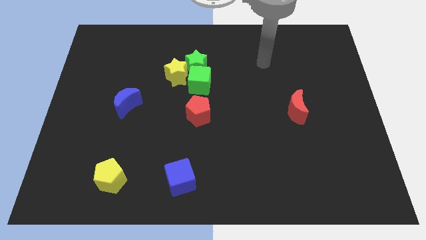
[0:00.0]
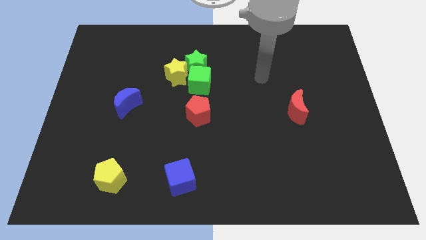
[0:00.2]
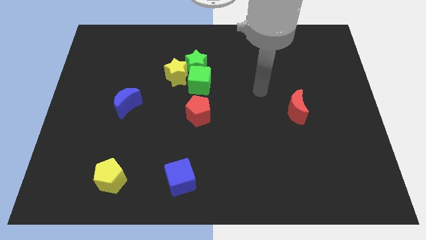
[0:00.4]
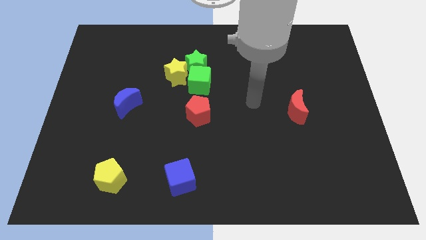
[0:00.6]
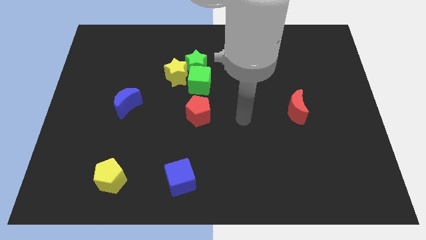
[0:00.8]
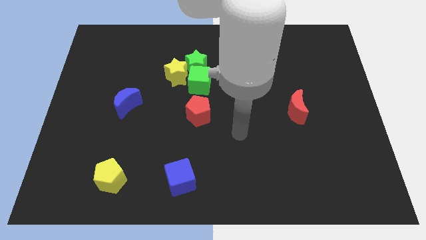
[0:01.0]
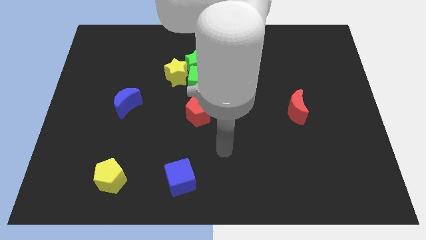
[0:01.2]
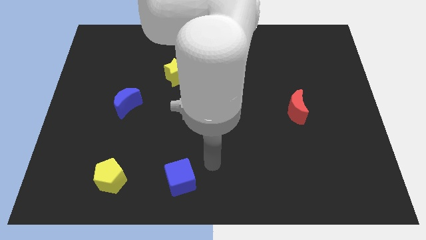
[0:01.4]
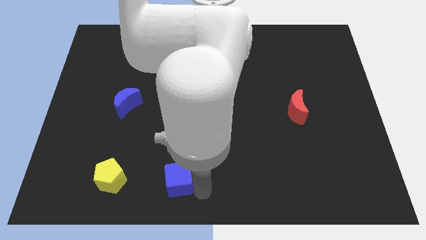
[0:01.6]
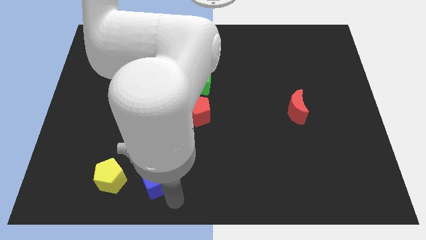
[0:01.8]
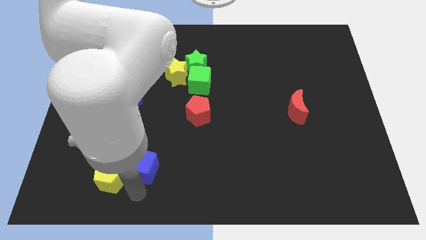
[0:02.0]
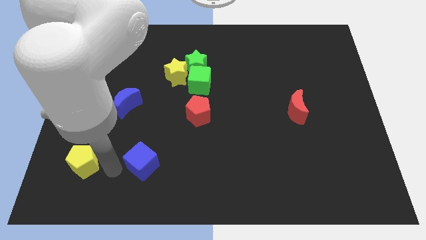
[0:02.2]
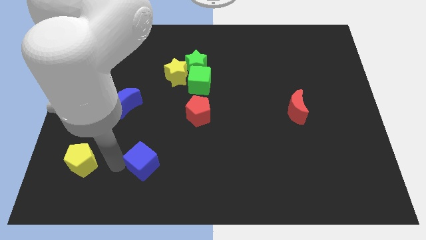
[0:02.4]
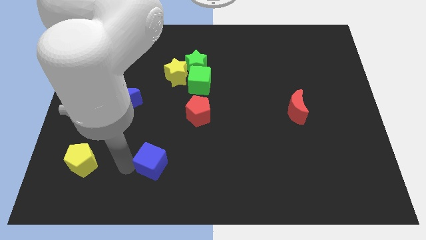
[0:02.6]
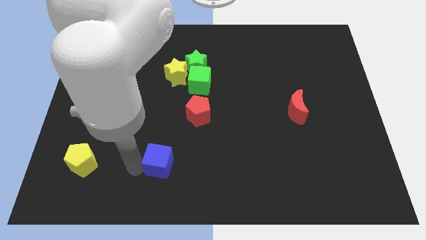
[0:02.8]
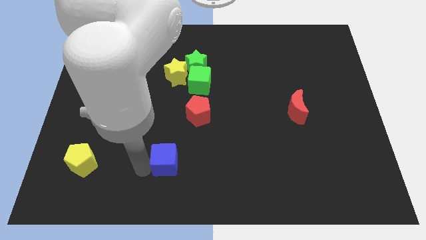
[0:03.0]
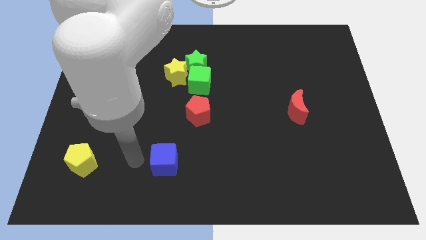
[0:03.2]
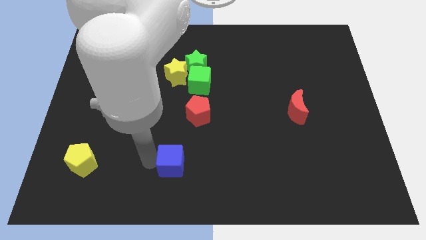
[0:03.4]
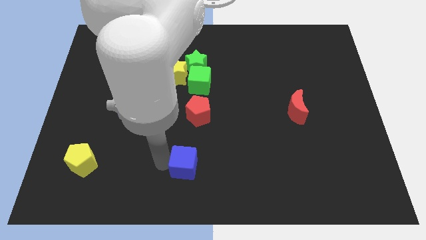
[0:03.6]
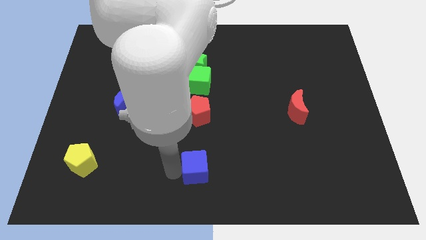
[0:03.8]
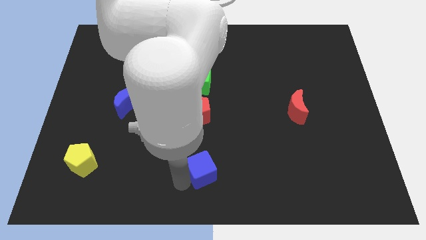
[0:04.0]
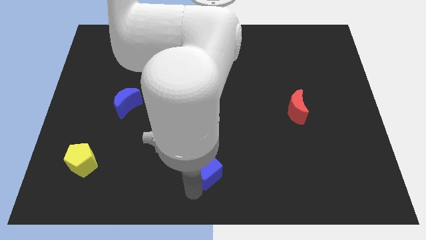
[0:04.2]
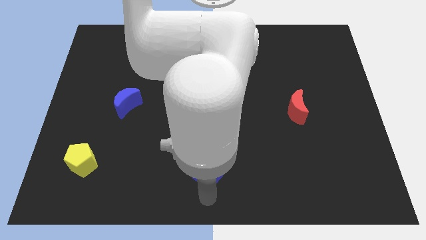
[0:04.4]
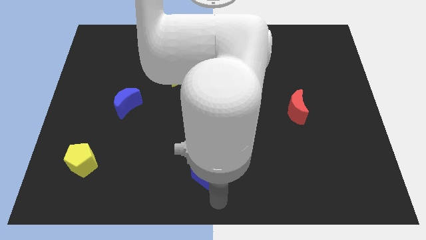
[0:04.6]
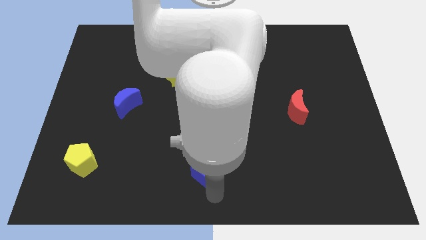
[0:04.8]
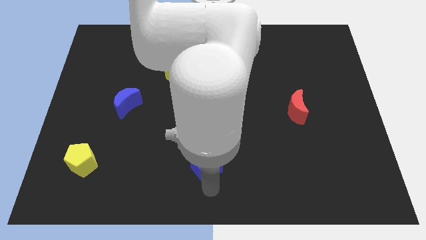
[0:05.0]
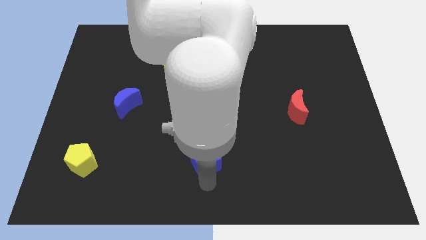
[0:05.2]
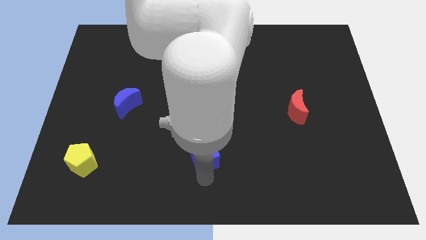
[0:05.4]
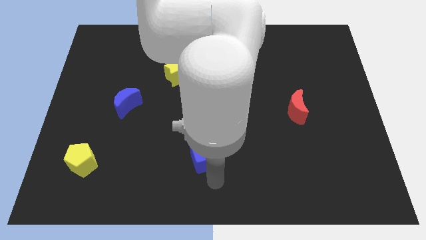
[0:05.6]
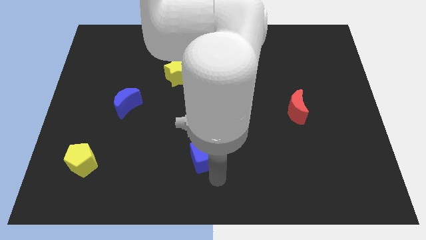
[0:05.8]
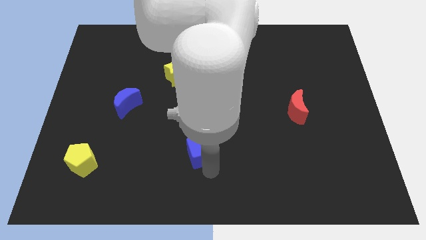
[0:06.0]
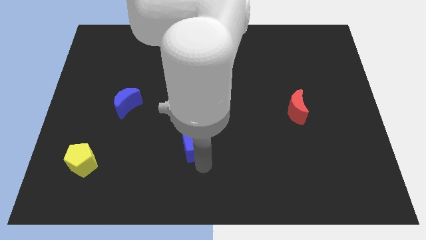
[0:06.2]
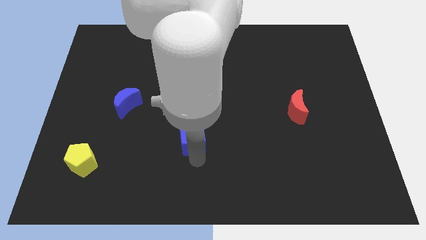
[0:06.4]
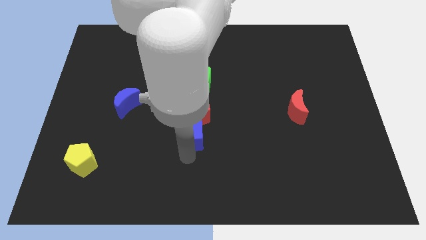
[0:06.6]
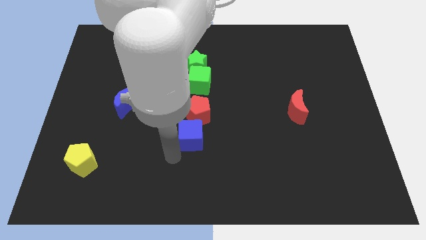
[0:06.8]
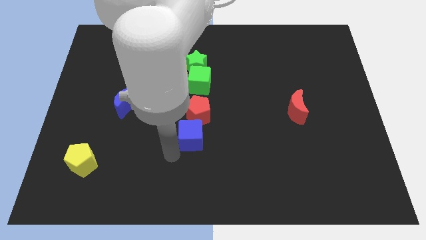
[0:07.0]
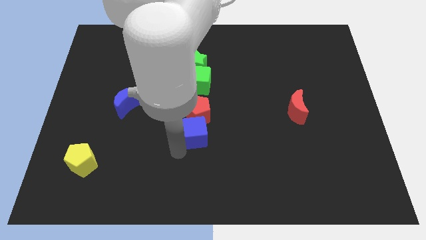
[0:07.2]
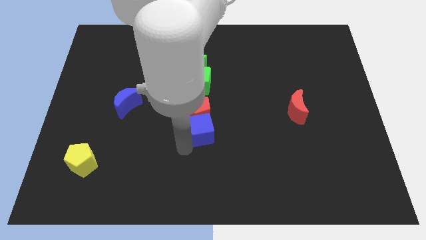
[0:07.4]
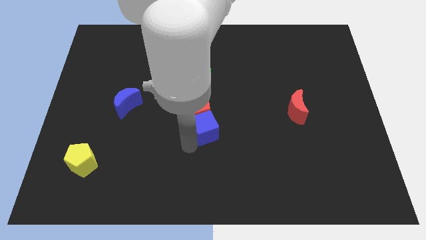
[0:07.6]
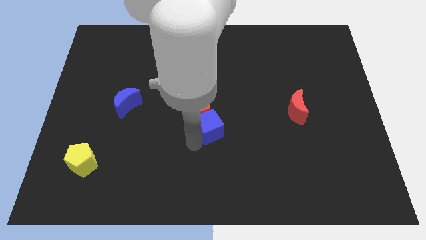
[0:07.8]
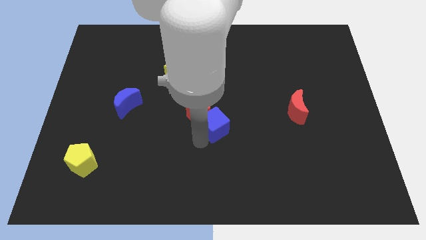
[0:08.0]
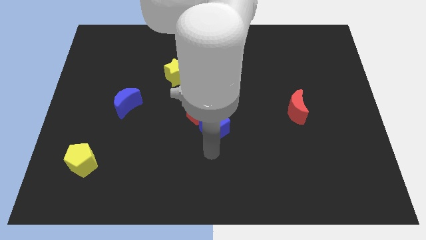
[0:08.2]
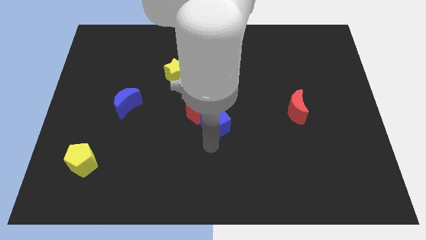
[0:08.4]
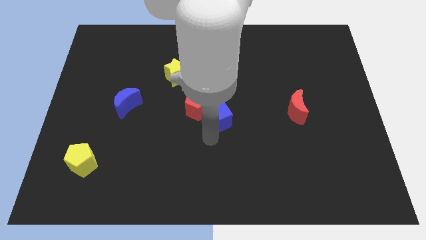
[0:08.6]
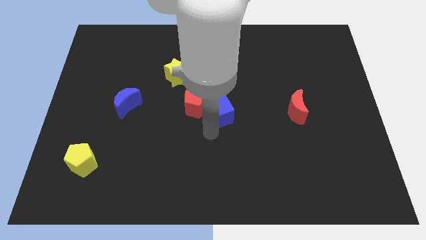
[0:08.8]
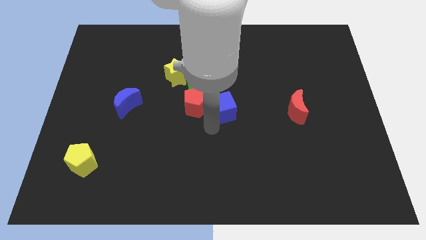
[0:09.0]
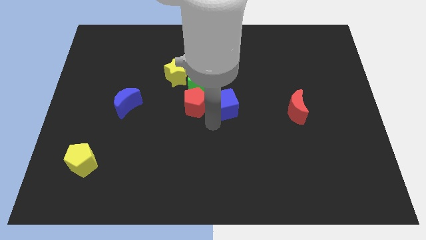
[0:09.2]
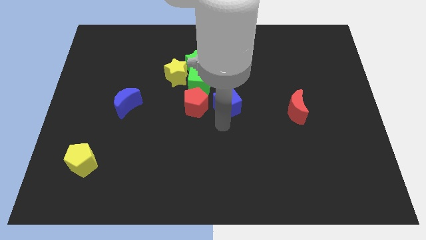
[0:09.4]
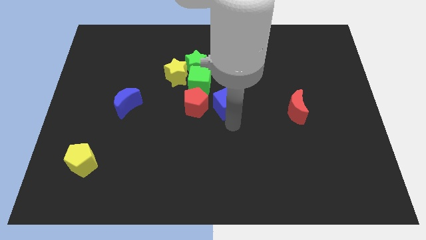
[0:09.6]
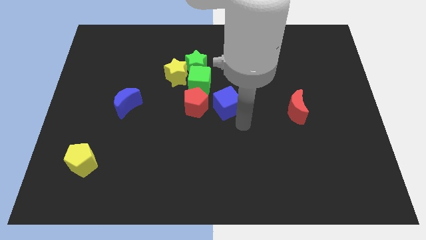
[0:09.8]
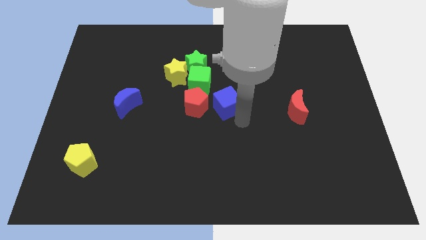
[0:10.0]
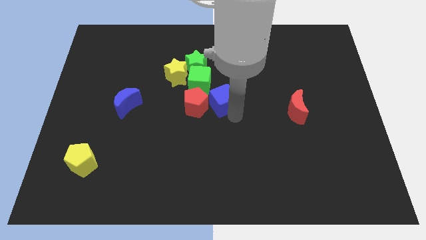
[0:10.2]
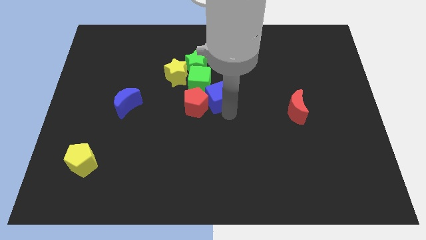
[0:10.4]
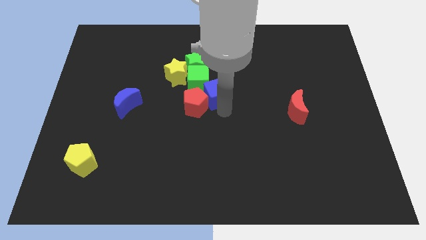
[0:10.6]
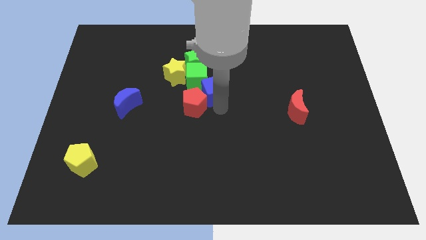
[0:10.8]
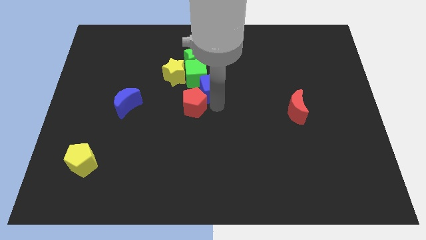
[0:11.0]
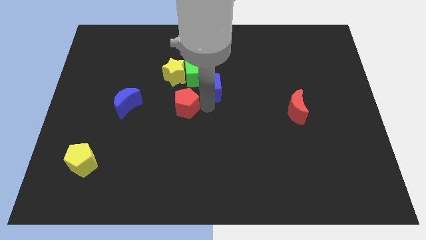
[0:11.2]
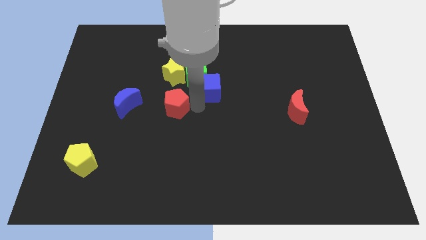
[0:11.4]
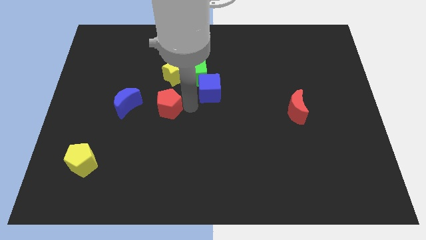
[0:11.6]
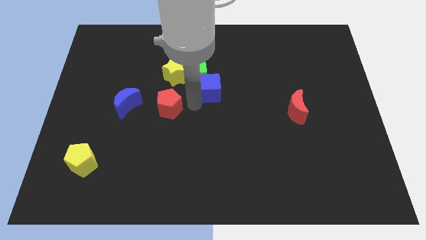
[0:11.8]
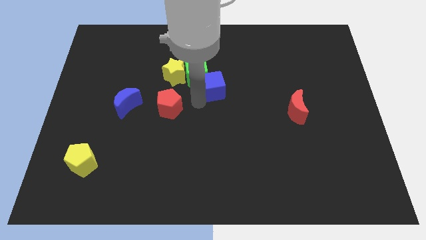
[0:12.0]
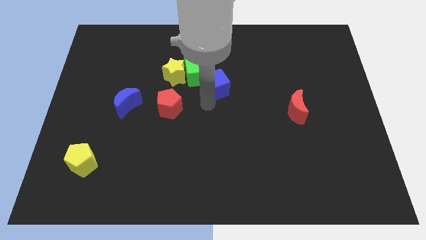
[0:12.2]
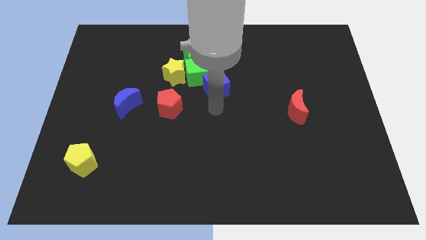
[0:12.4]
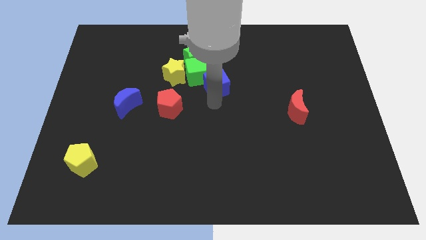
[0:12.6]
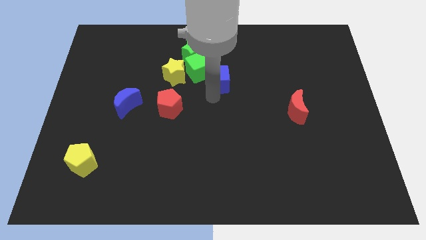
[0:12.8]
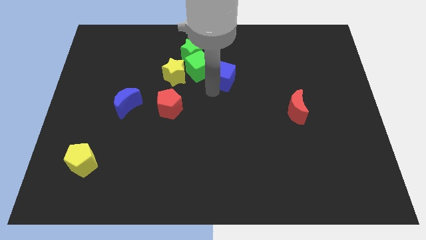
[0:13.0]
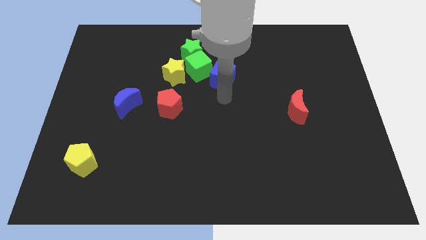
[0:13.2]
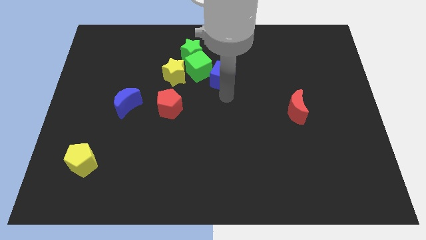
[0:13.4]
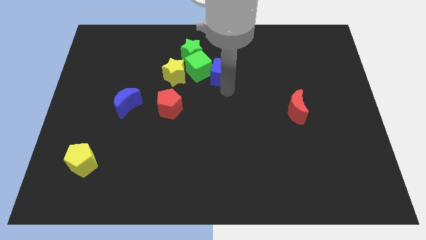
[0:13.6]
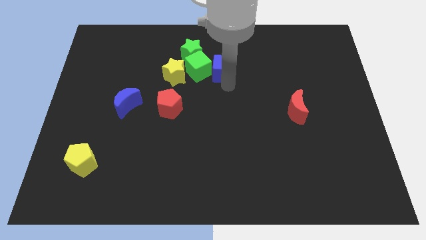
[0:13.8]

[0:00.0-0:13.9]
move the blue cube diagonally up and to the right of the green cube
